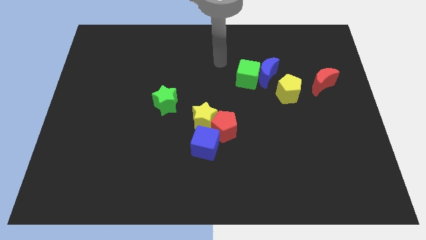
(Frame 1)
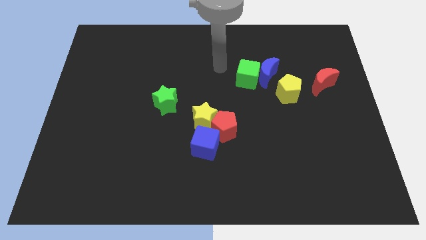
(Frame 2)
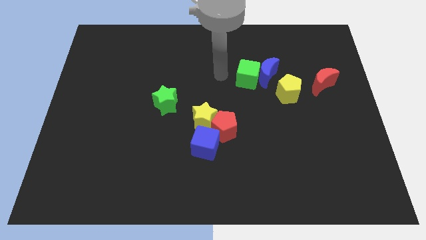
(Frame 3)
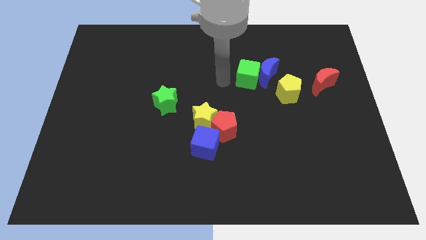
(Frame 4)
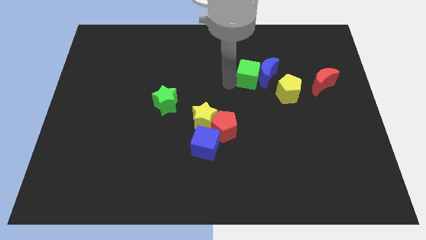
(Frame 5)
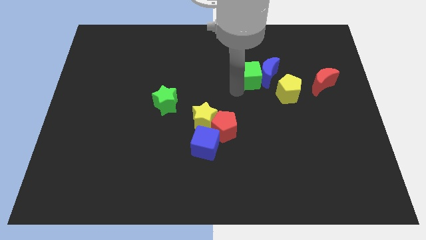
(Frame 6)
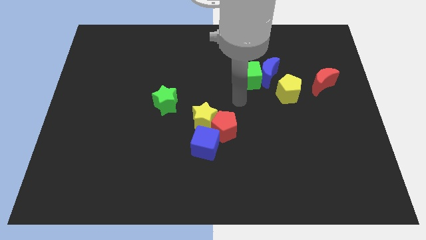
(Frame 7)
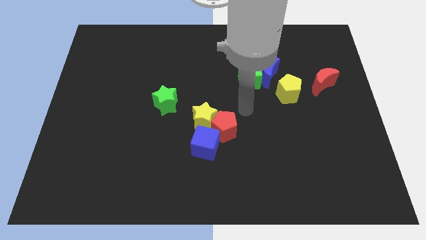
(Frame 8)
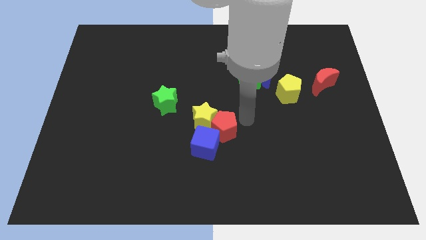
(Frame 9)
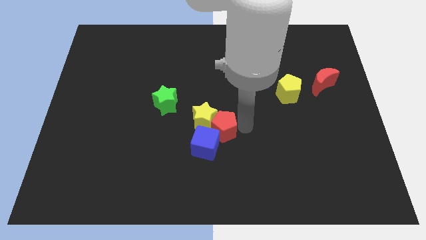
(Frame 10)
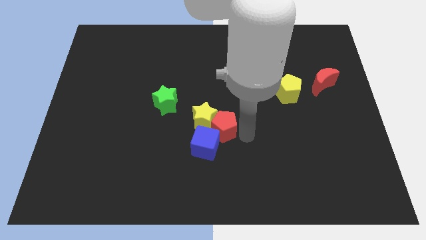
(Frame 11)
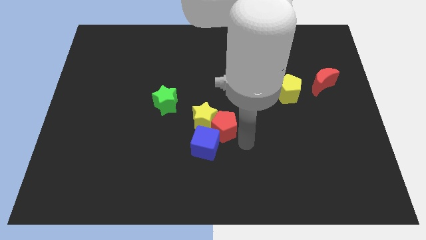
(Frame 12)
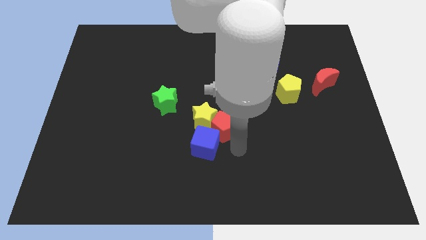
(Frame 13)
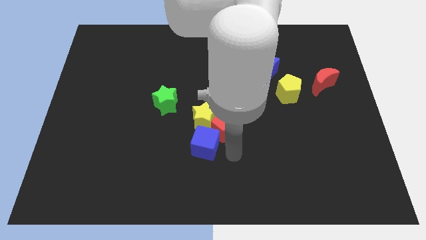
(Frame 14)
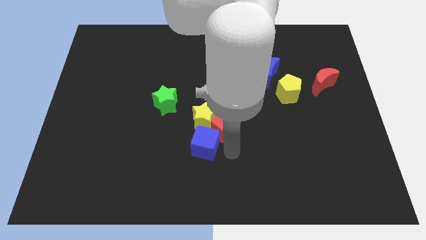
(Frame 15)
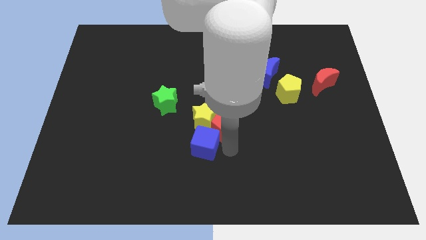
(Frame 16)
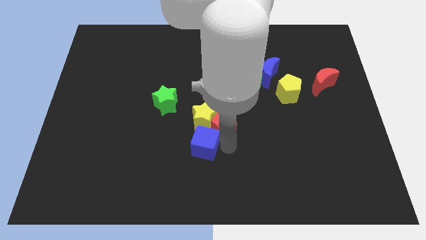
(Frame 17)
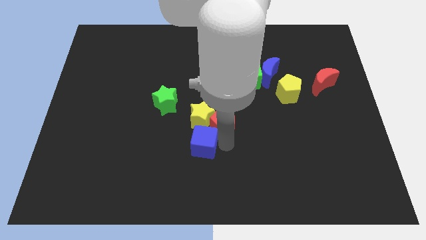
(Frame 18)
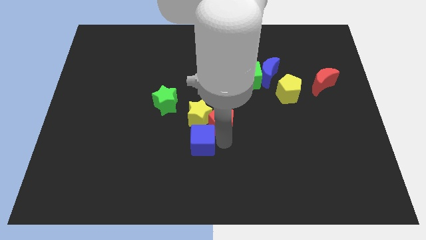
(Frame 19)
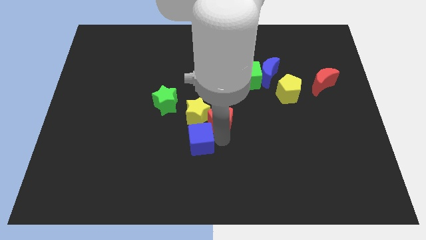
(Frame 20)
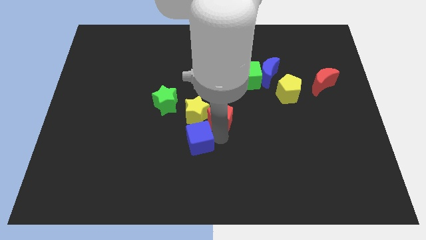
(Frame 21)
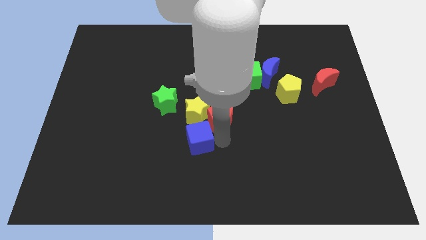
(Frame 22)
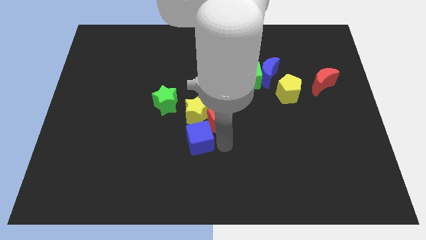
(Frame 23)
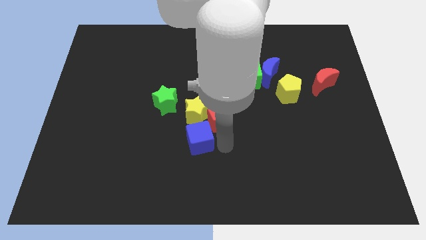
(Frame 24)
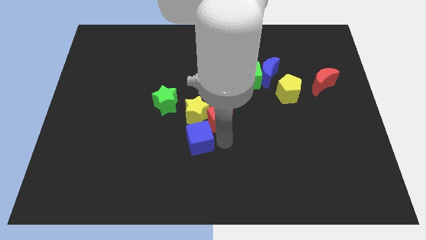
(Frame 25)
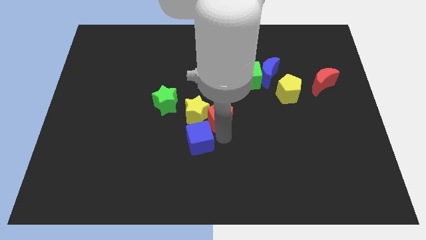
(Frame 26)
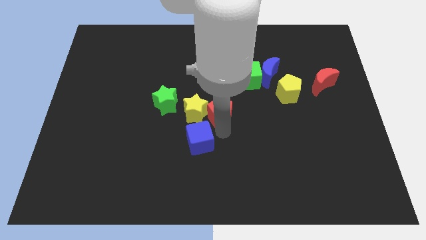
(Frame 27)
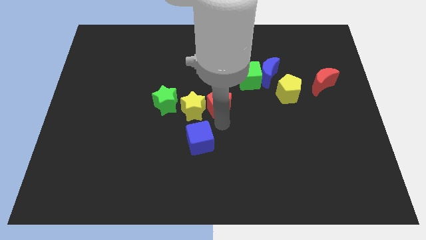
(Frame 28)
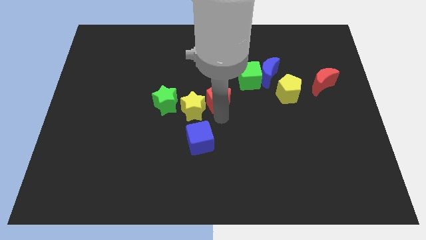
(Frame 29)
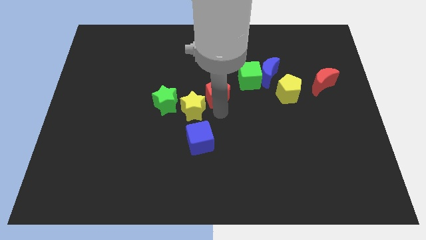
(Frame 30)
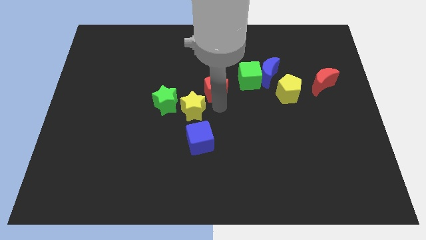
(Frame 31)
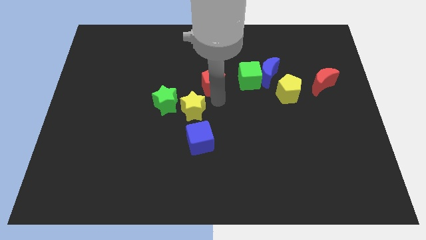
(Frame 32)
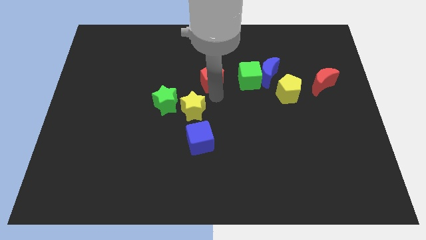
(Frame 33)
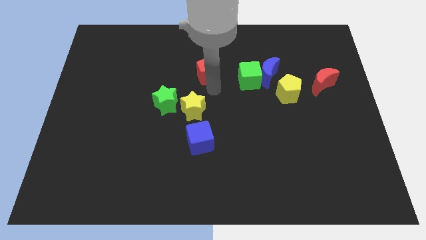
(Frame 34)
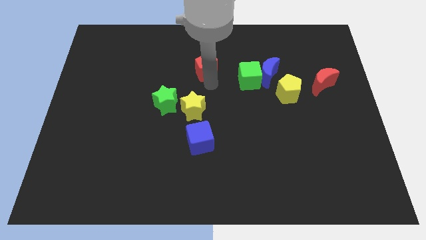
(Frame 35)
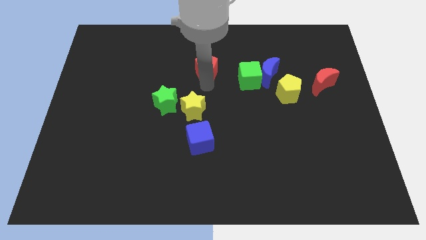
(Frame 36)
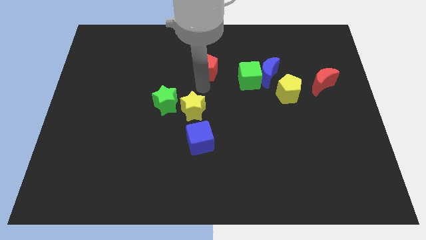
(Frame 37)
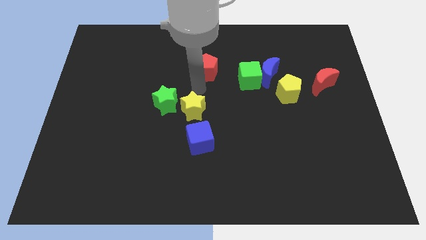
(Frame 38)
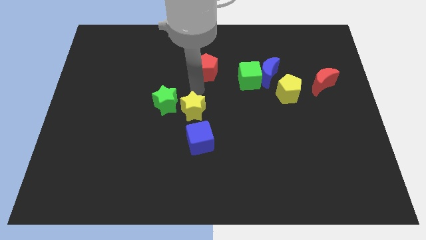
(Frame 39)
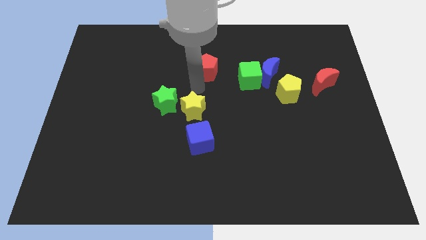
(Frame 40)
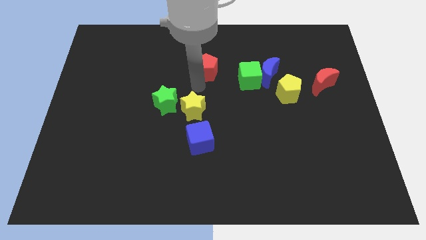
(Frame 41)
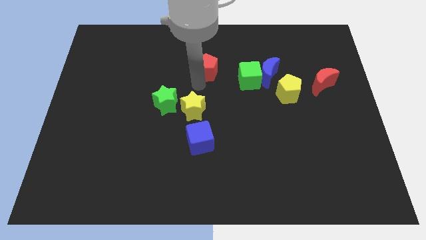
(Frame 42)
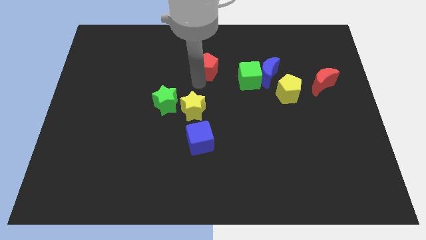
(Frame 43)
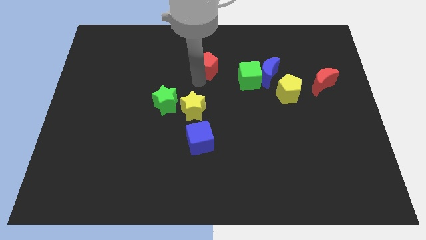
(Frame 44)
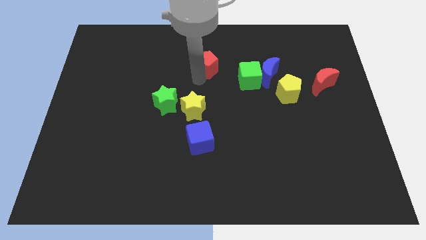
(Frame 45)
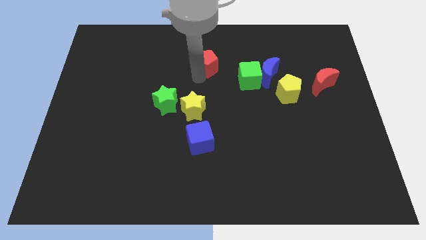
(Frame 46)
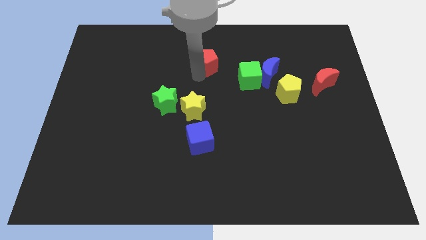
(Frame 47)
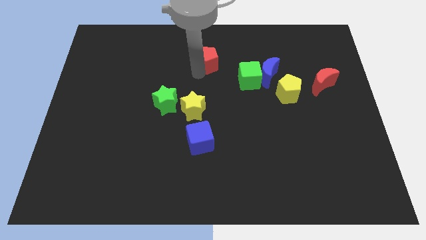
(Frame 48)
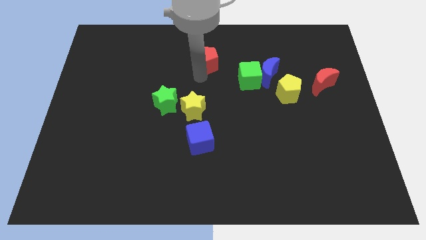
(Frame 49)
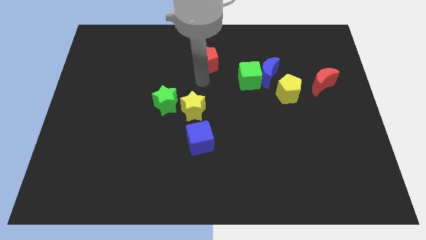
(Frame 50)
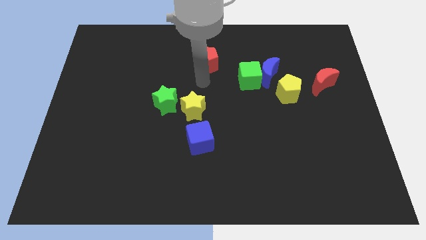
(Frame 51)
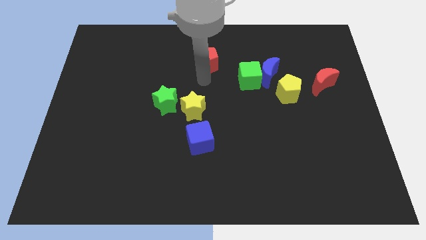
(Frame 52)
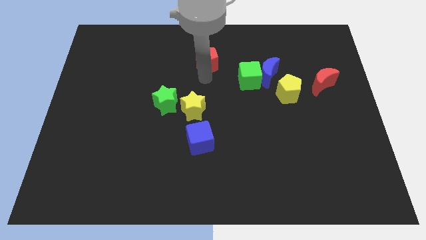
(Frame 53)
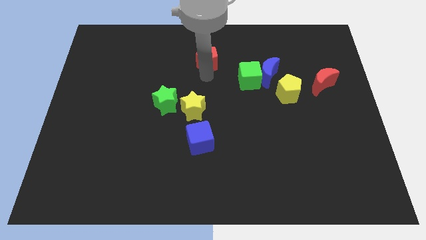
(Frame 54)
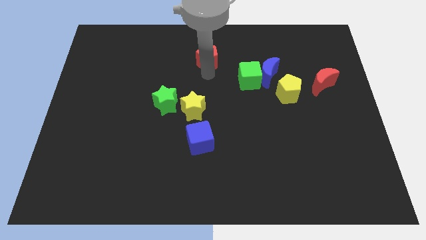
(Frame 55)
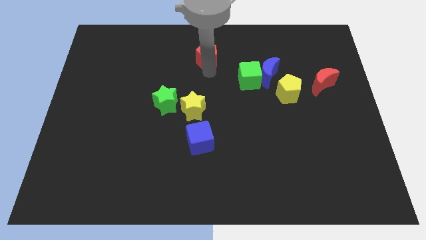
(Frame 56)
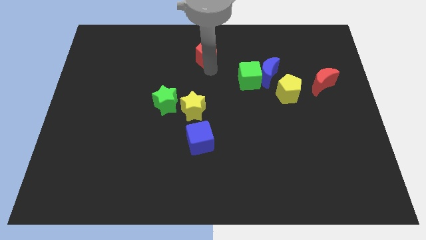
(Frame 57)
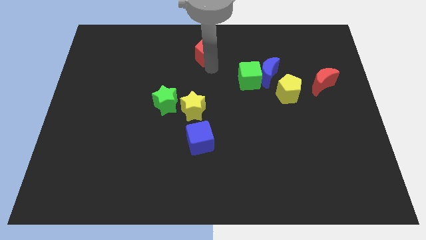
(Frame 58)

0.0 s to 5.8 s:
put the red pentagon to the towards your base
